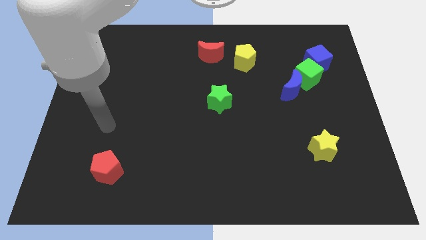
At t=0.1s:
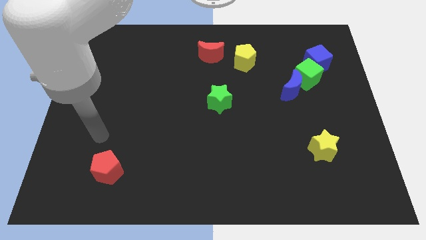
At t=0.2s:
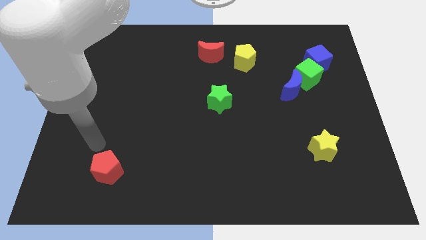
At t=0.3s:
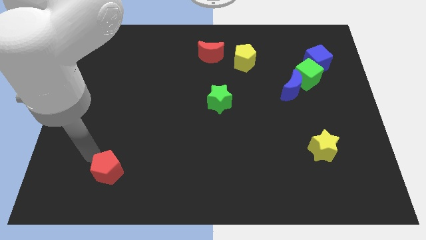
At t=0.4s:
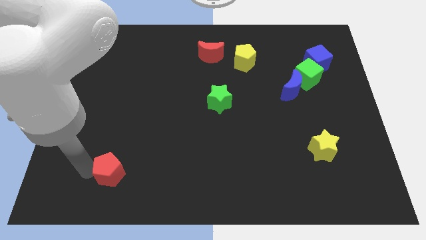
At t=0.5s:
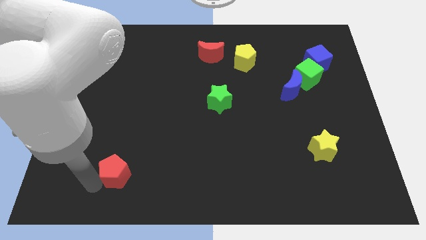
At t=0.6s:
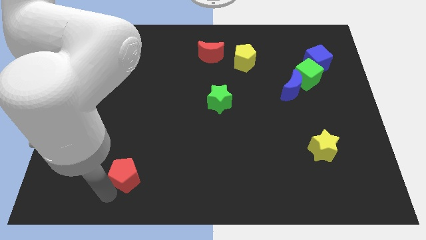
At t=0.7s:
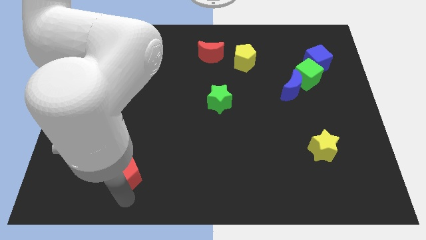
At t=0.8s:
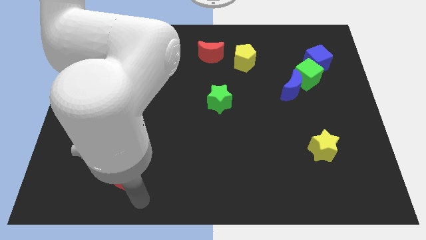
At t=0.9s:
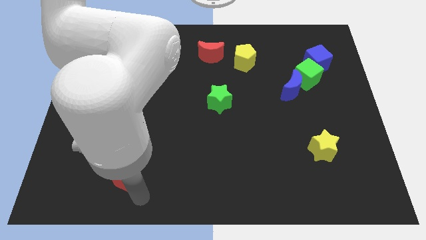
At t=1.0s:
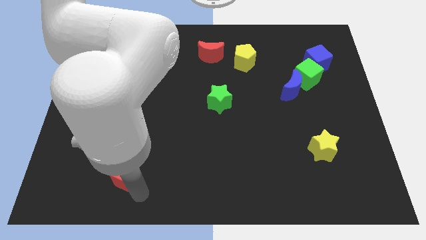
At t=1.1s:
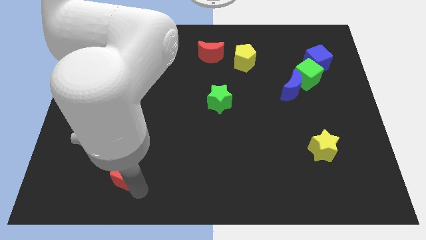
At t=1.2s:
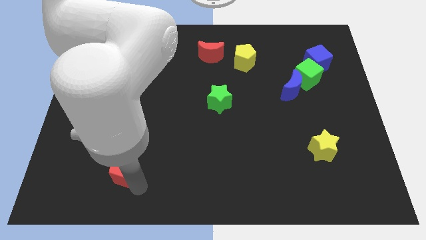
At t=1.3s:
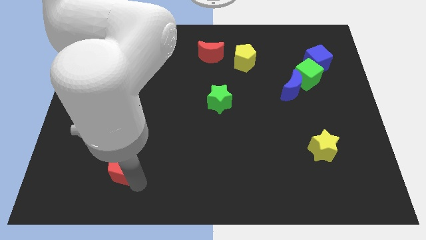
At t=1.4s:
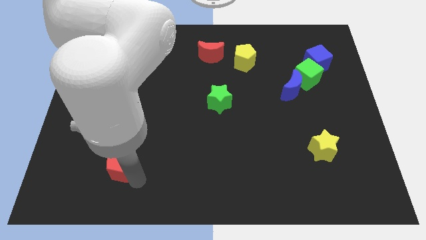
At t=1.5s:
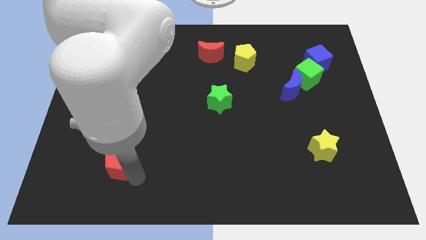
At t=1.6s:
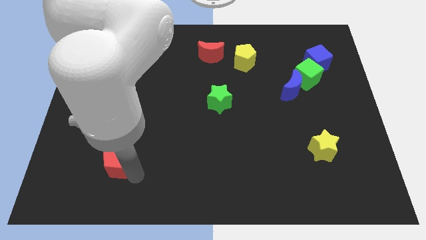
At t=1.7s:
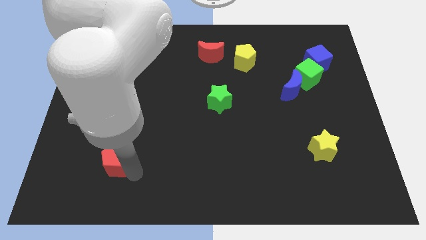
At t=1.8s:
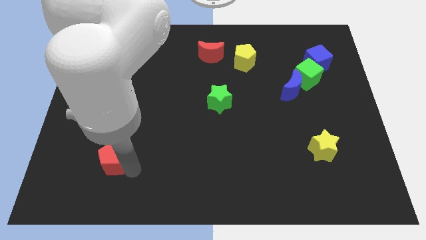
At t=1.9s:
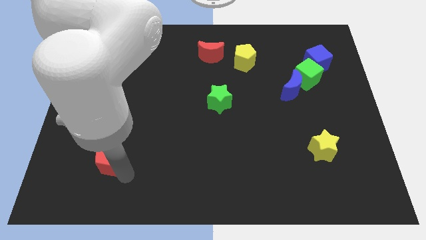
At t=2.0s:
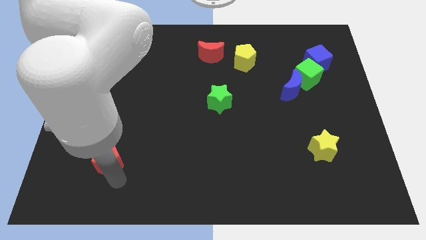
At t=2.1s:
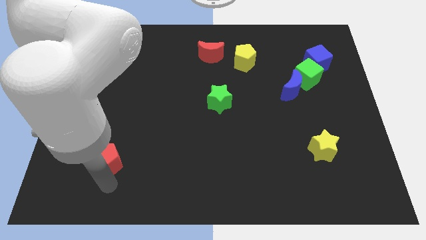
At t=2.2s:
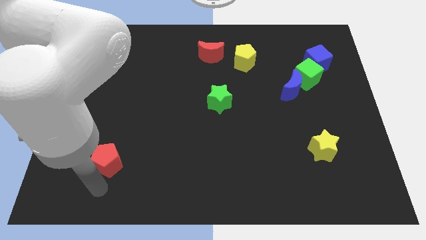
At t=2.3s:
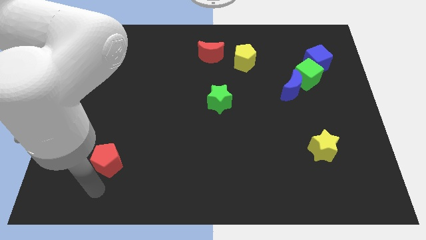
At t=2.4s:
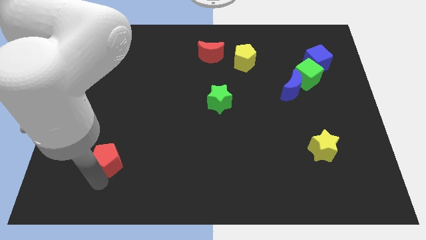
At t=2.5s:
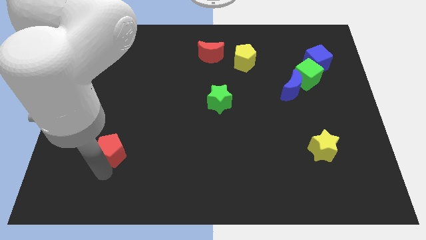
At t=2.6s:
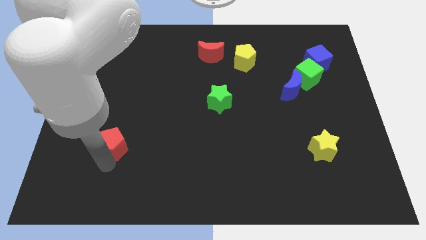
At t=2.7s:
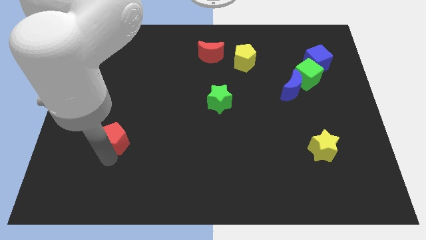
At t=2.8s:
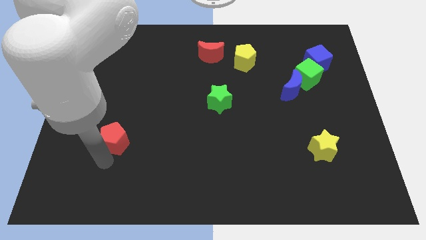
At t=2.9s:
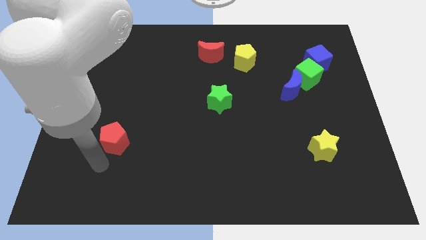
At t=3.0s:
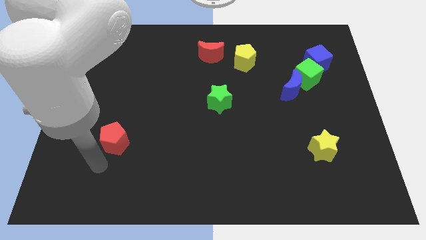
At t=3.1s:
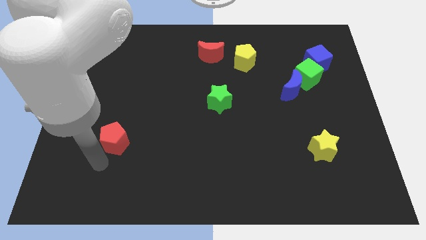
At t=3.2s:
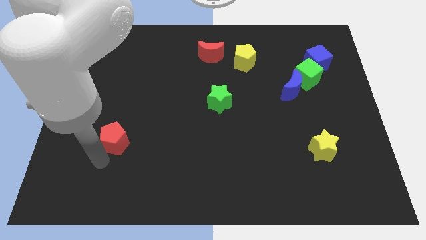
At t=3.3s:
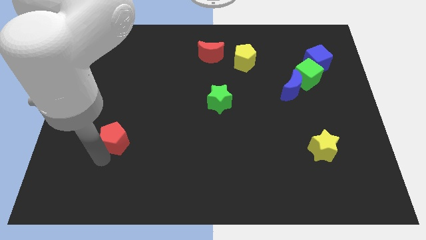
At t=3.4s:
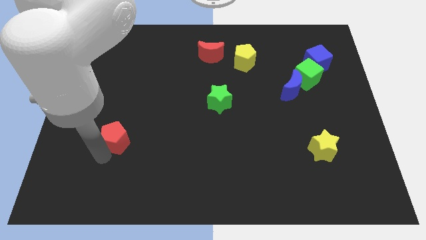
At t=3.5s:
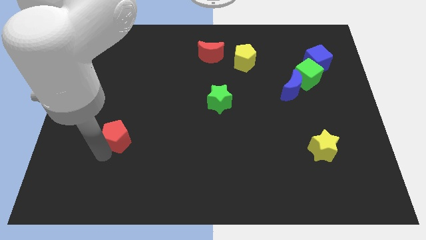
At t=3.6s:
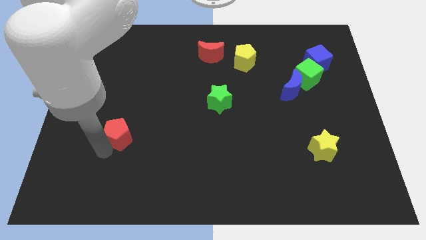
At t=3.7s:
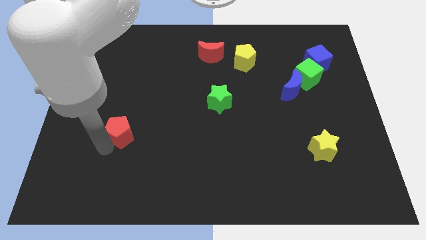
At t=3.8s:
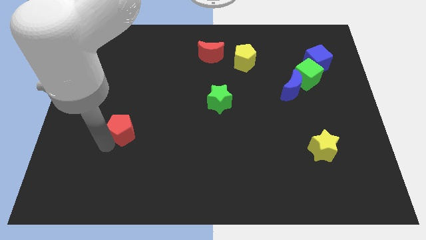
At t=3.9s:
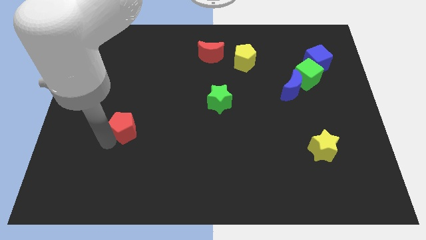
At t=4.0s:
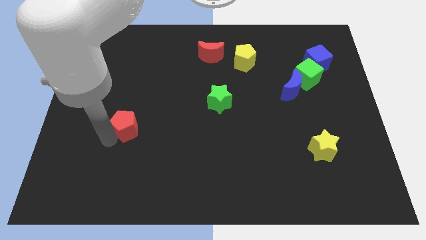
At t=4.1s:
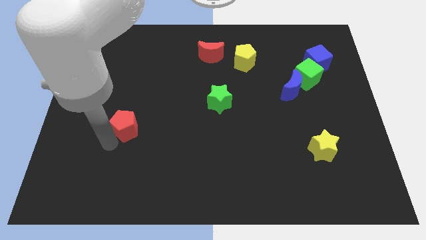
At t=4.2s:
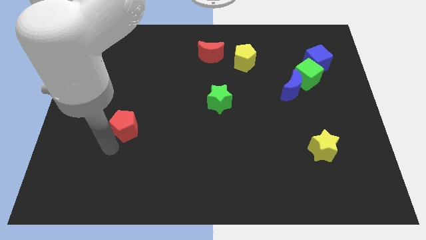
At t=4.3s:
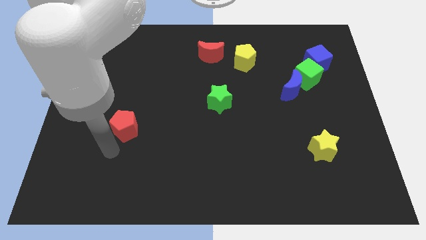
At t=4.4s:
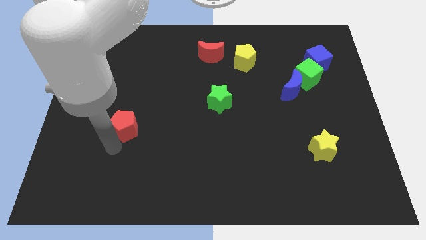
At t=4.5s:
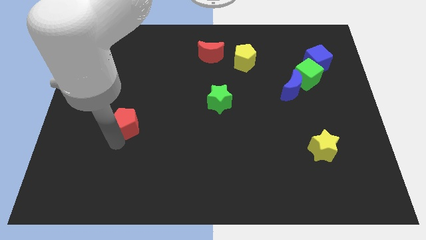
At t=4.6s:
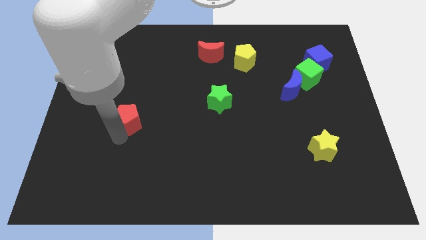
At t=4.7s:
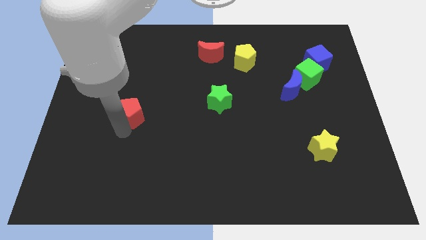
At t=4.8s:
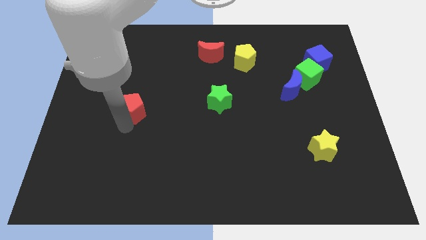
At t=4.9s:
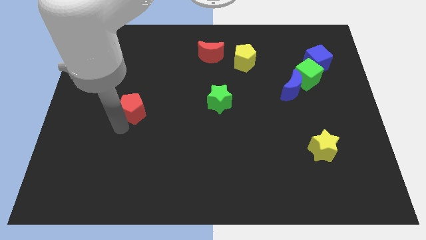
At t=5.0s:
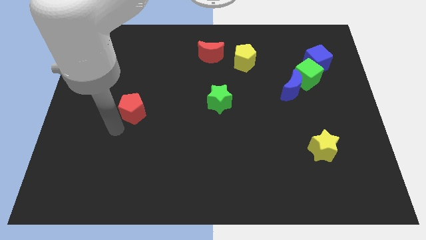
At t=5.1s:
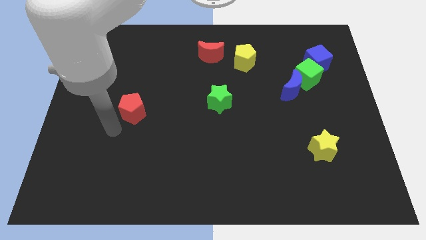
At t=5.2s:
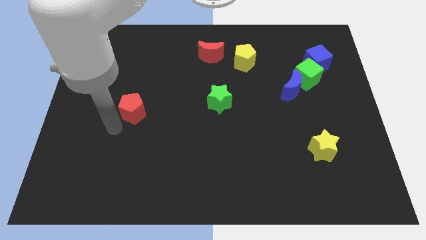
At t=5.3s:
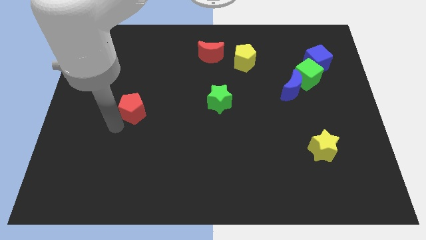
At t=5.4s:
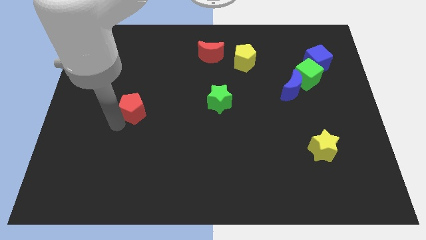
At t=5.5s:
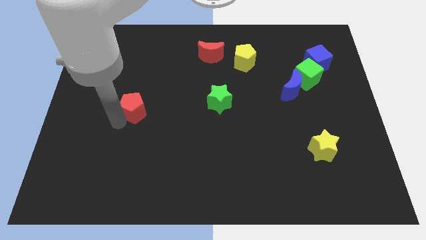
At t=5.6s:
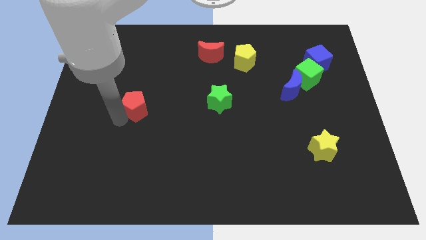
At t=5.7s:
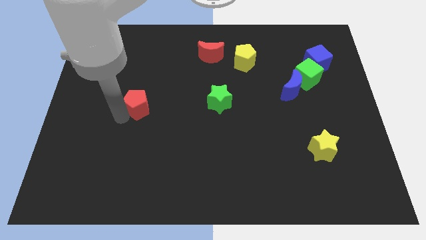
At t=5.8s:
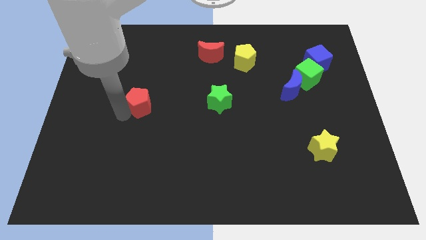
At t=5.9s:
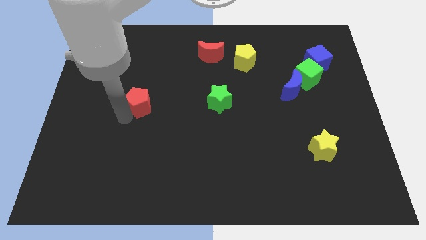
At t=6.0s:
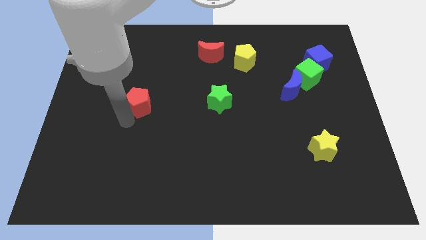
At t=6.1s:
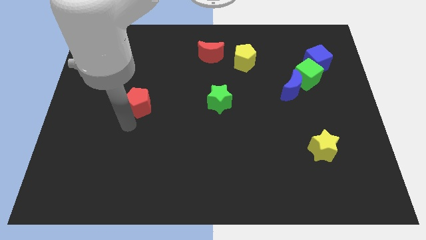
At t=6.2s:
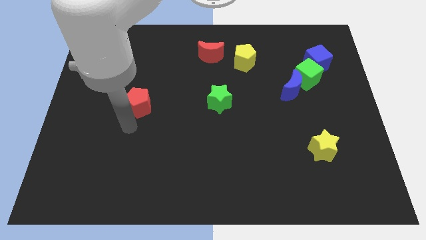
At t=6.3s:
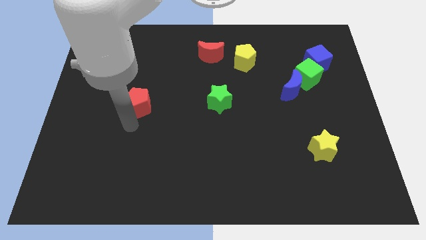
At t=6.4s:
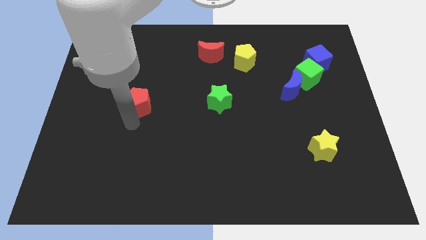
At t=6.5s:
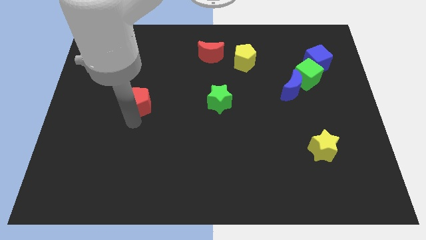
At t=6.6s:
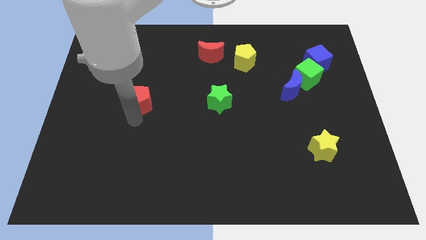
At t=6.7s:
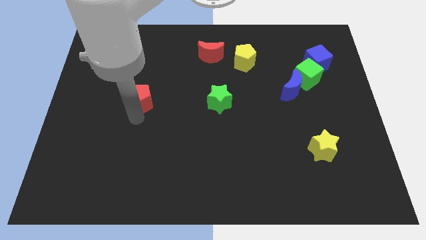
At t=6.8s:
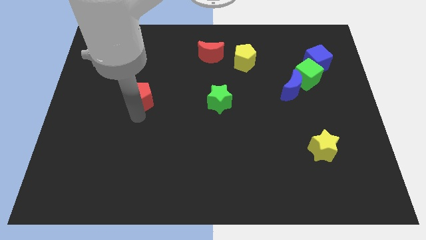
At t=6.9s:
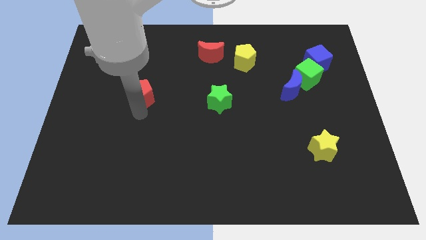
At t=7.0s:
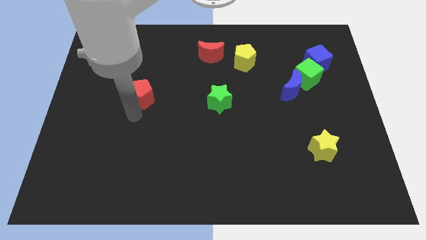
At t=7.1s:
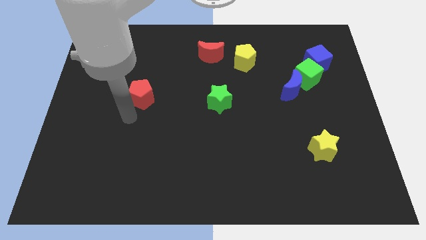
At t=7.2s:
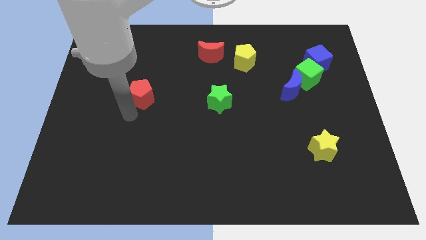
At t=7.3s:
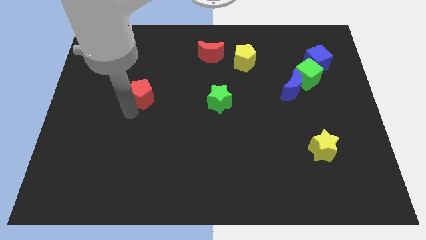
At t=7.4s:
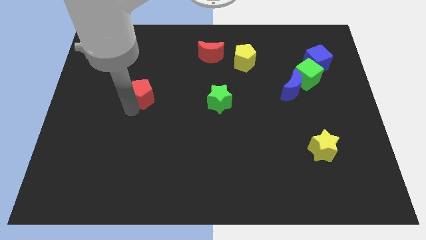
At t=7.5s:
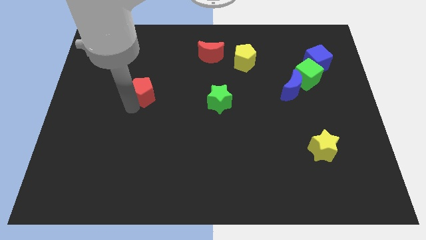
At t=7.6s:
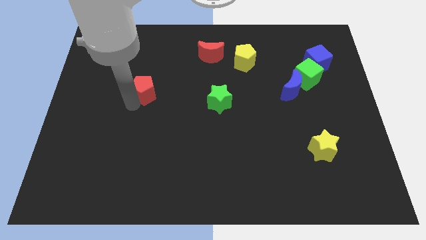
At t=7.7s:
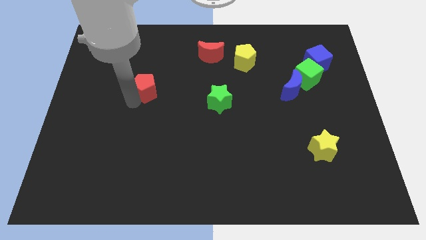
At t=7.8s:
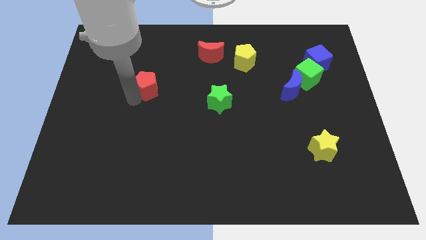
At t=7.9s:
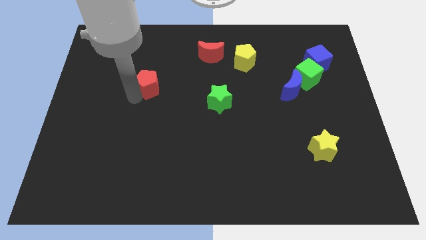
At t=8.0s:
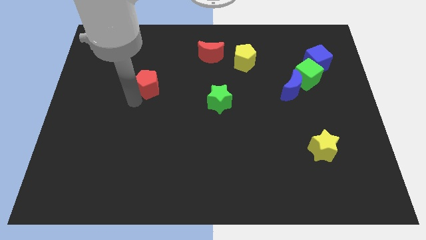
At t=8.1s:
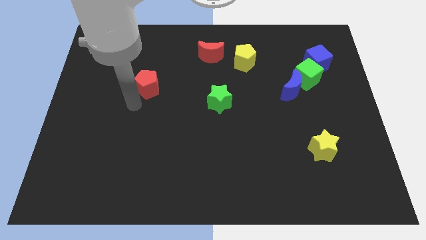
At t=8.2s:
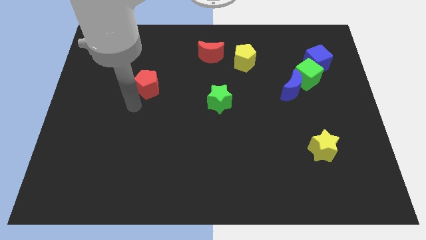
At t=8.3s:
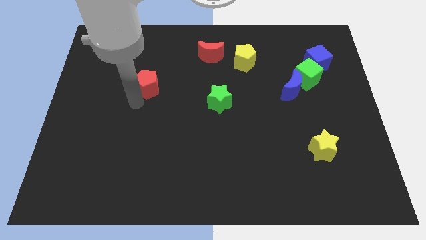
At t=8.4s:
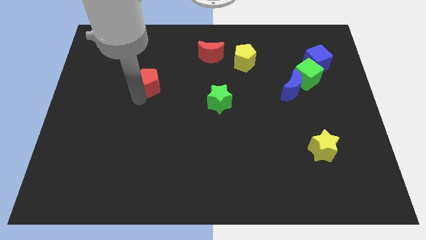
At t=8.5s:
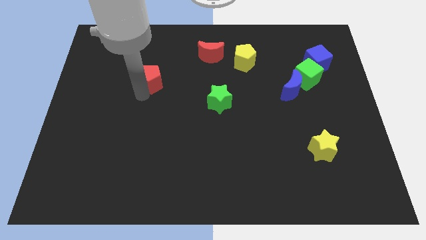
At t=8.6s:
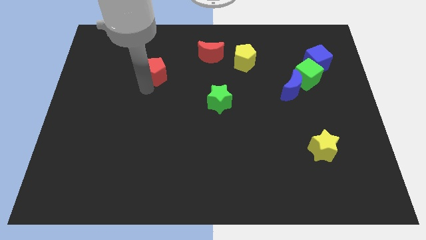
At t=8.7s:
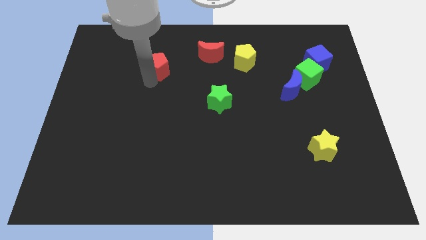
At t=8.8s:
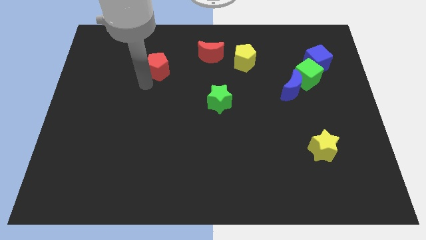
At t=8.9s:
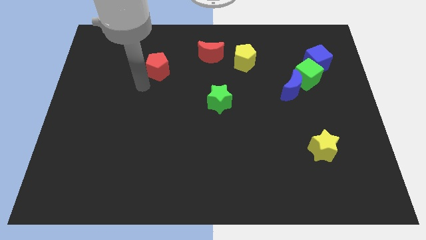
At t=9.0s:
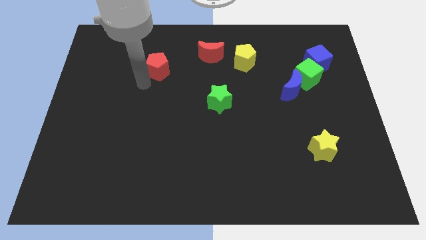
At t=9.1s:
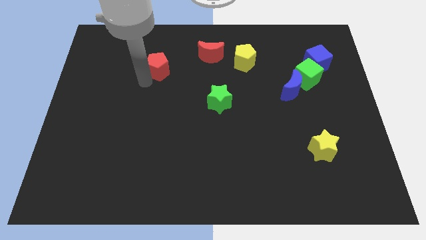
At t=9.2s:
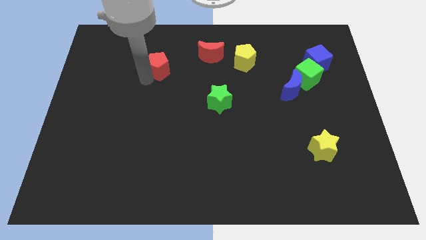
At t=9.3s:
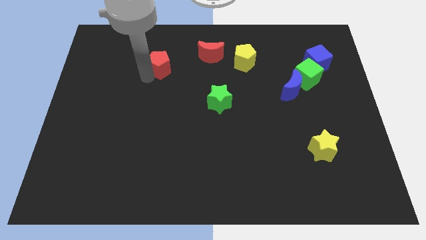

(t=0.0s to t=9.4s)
push the red pentagon to the left of the red moon
